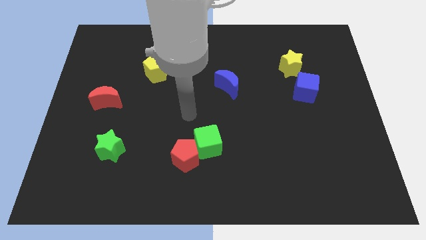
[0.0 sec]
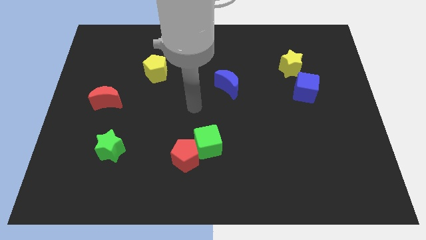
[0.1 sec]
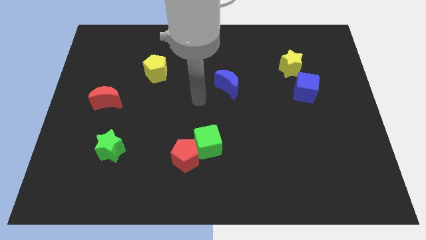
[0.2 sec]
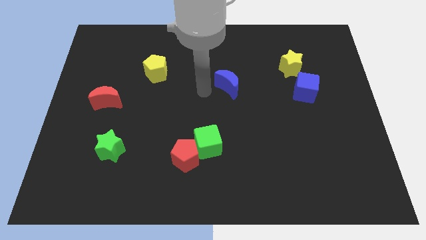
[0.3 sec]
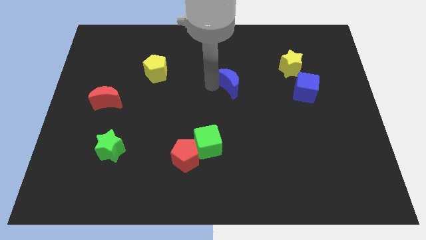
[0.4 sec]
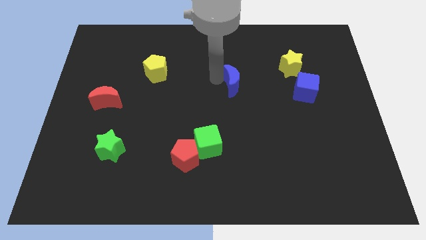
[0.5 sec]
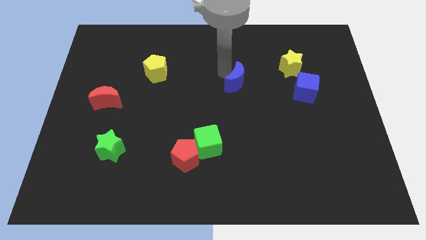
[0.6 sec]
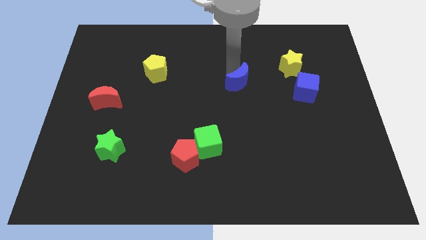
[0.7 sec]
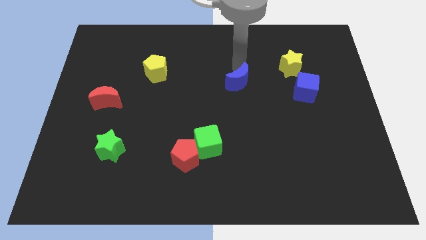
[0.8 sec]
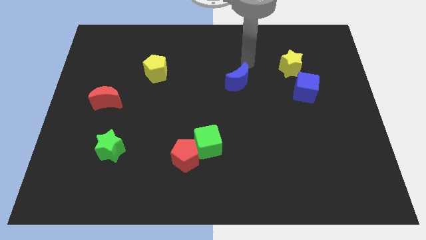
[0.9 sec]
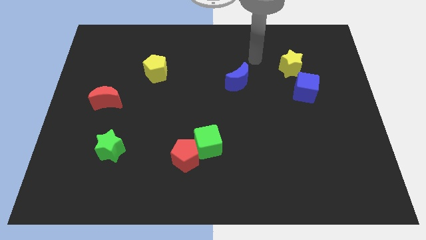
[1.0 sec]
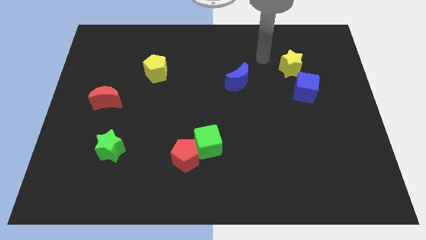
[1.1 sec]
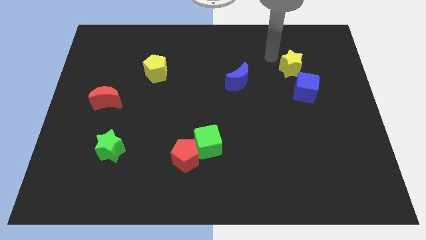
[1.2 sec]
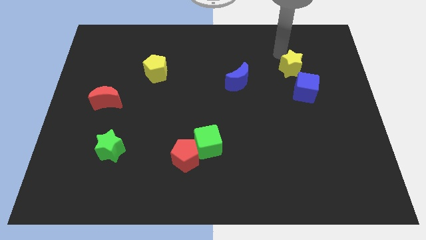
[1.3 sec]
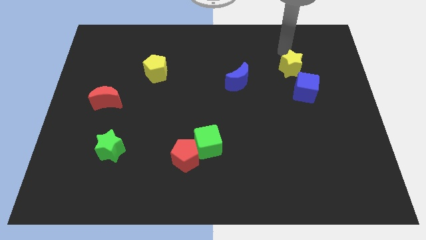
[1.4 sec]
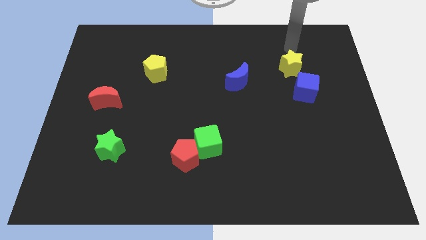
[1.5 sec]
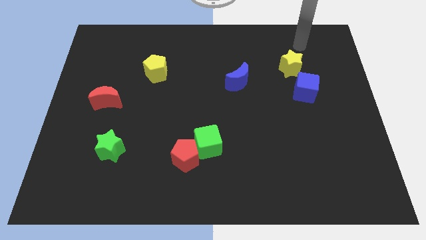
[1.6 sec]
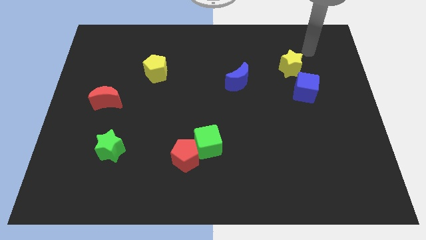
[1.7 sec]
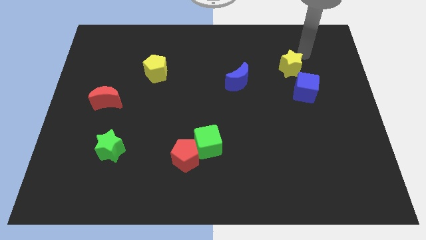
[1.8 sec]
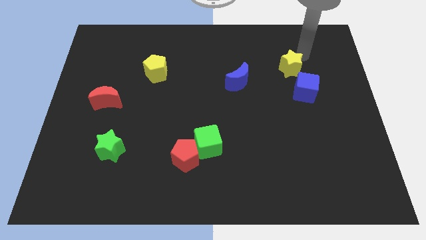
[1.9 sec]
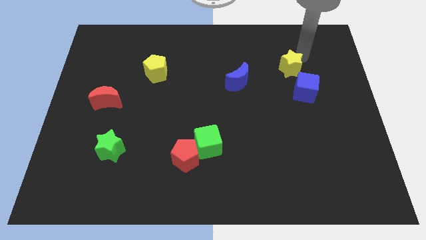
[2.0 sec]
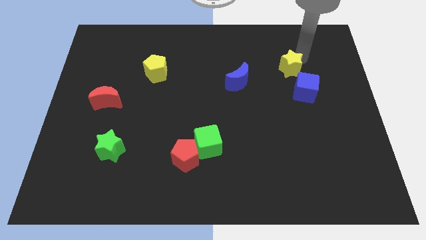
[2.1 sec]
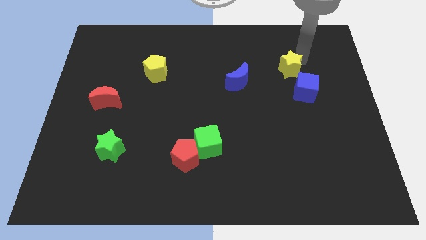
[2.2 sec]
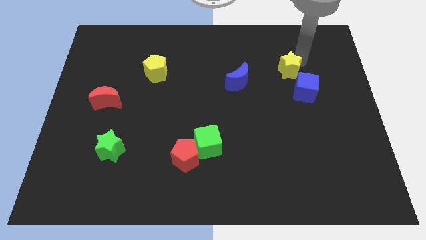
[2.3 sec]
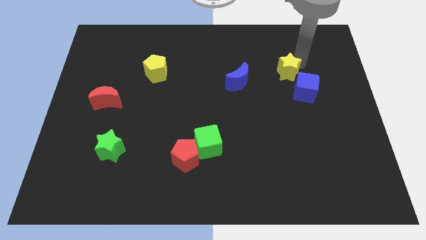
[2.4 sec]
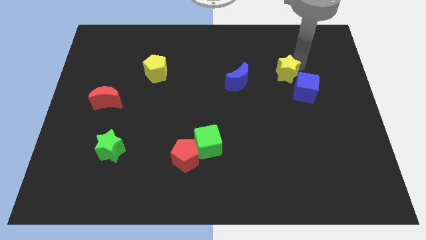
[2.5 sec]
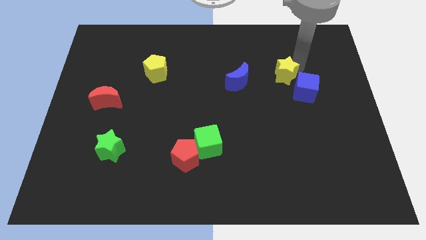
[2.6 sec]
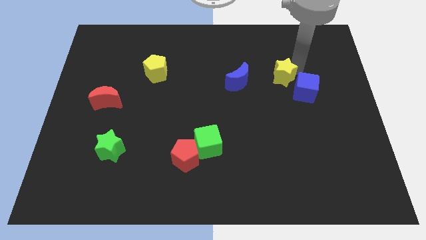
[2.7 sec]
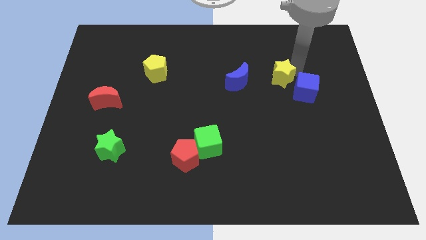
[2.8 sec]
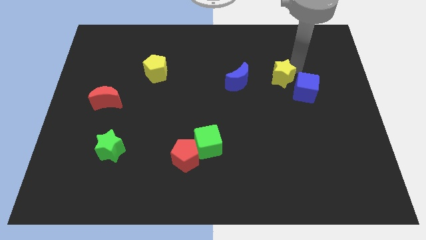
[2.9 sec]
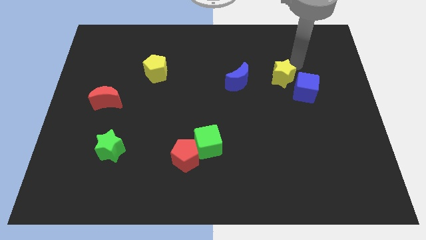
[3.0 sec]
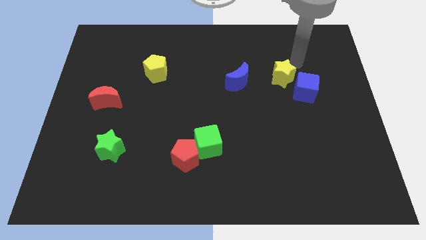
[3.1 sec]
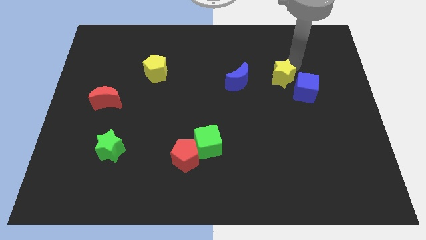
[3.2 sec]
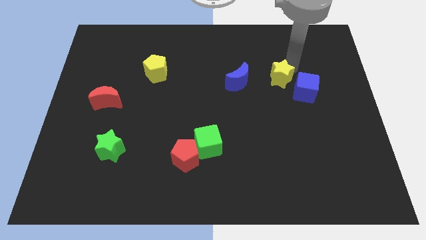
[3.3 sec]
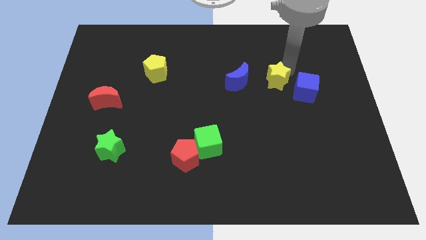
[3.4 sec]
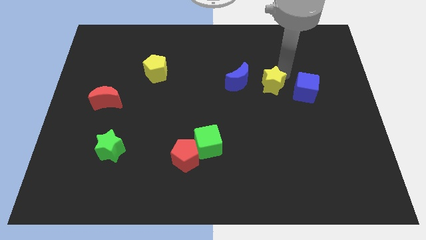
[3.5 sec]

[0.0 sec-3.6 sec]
slightly move the yellow star down and to the left diagonally

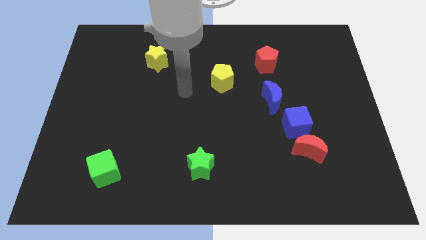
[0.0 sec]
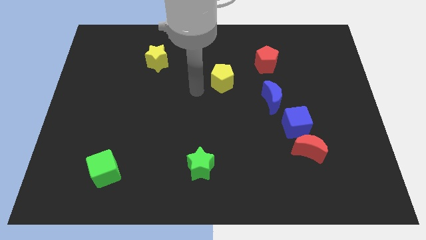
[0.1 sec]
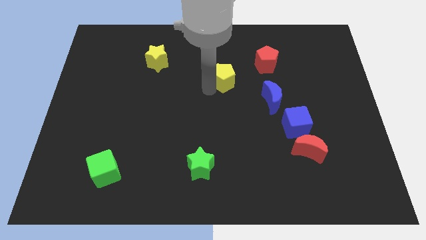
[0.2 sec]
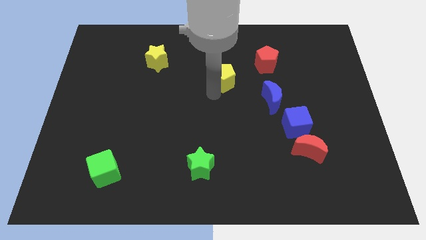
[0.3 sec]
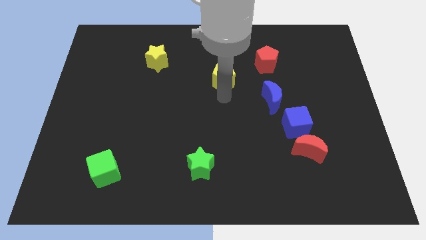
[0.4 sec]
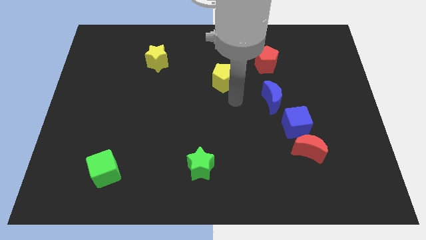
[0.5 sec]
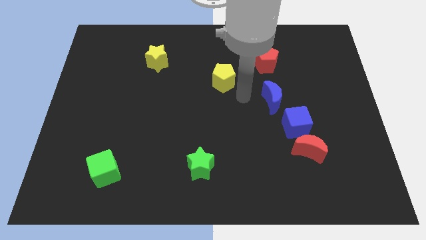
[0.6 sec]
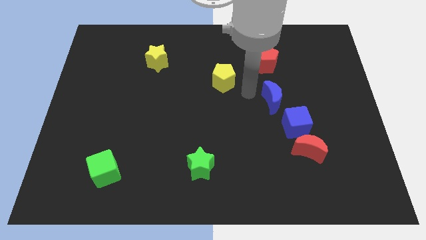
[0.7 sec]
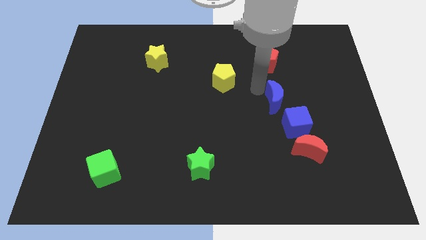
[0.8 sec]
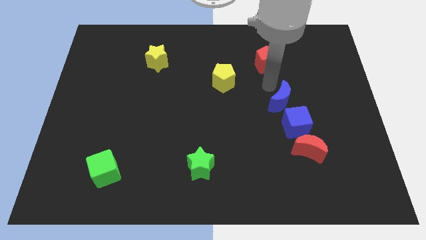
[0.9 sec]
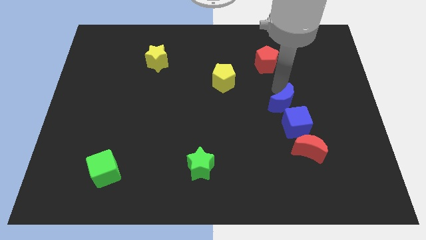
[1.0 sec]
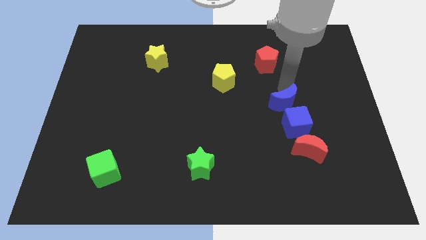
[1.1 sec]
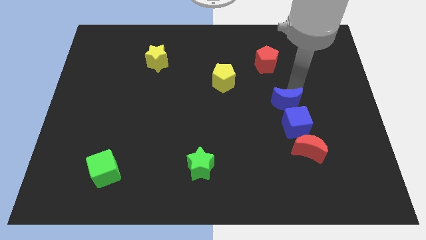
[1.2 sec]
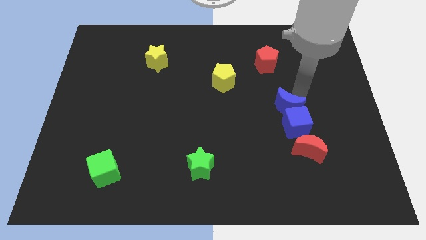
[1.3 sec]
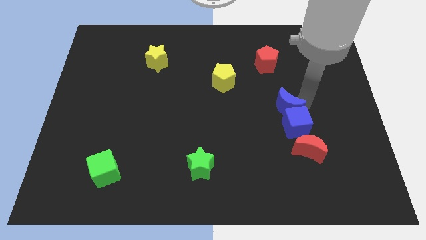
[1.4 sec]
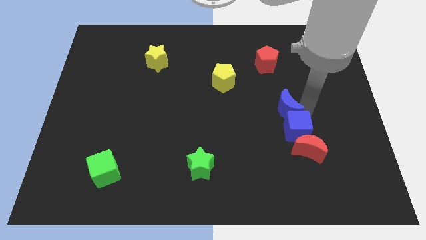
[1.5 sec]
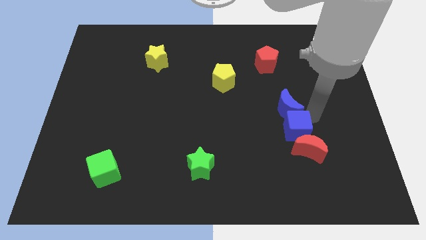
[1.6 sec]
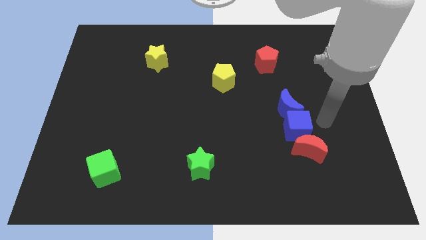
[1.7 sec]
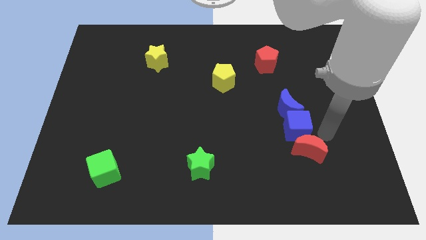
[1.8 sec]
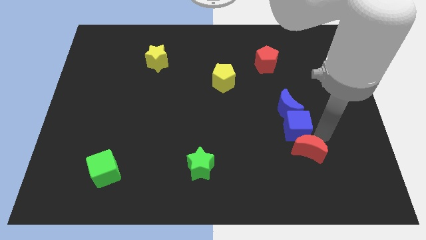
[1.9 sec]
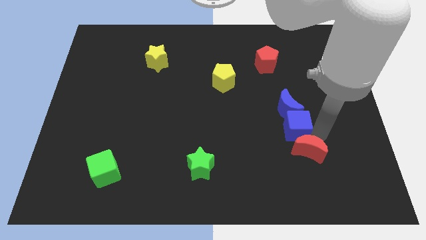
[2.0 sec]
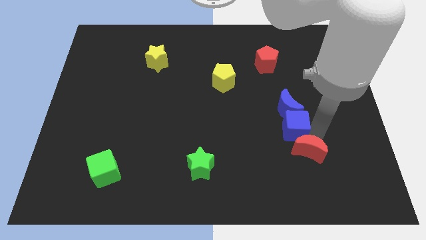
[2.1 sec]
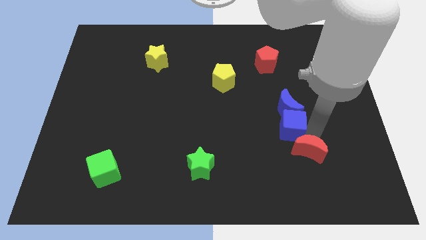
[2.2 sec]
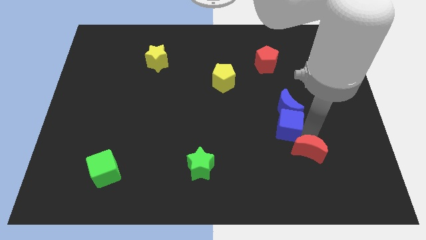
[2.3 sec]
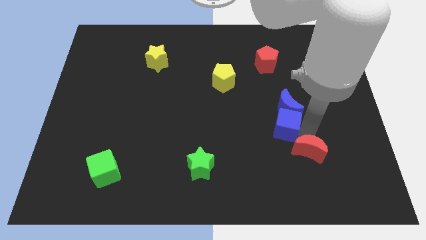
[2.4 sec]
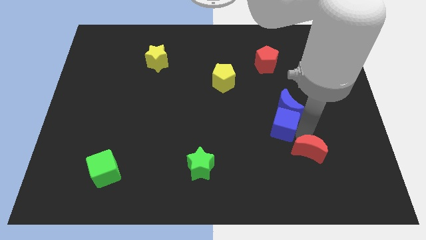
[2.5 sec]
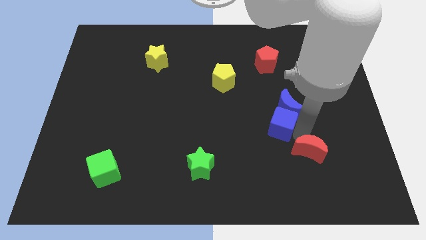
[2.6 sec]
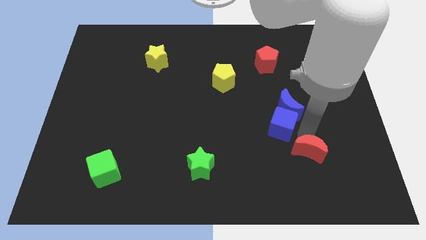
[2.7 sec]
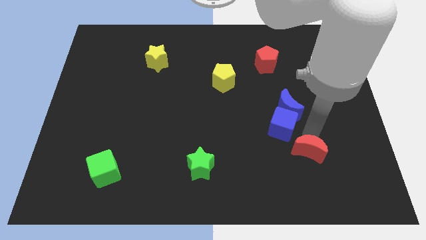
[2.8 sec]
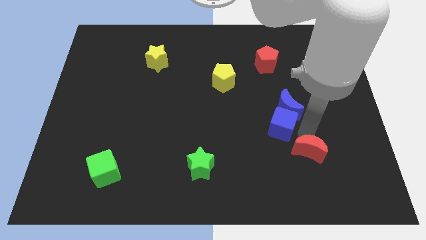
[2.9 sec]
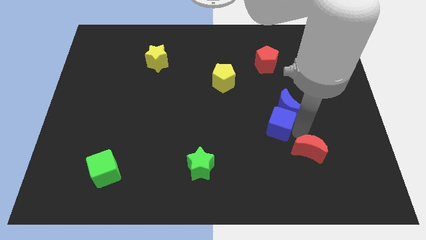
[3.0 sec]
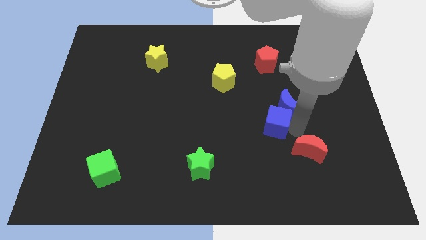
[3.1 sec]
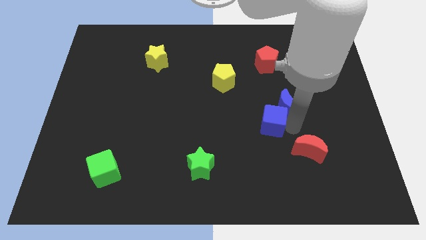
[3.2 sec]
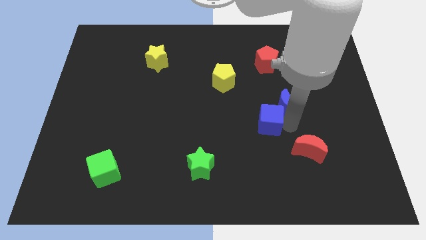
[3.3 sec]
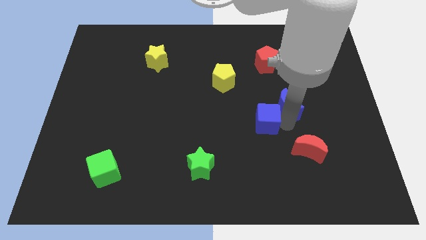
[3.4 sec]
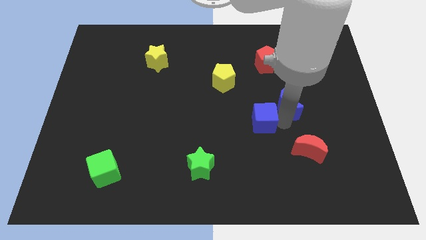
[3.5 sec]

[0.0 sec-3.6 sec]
slide the blue cube to the left a little bit

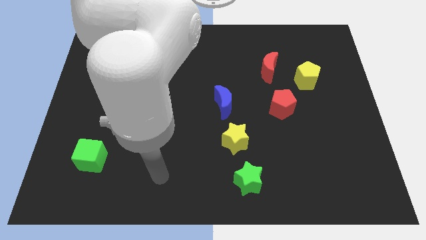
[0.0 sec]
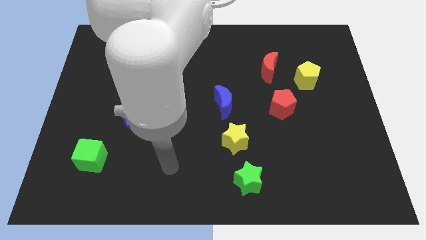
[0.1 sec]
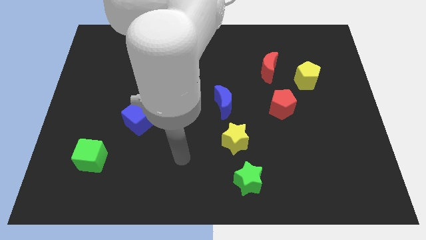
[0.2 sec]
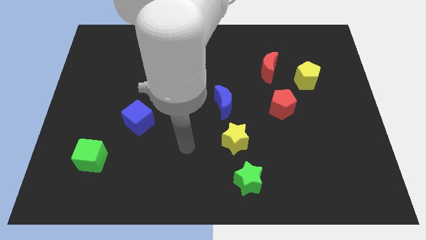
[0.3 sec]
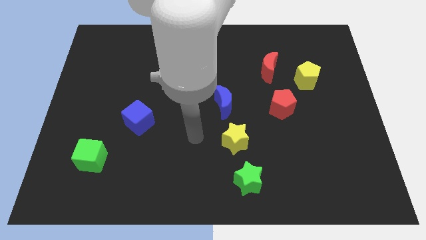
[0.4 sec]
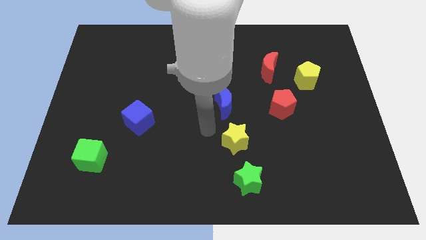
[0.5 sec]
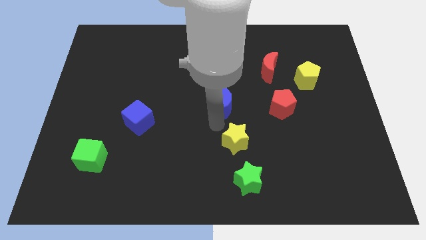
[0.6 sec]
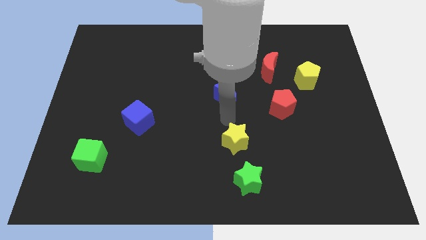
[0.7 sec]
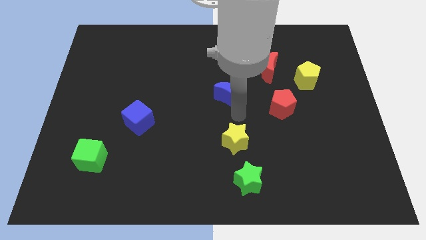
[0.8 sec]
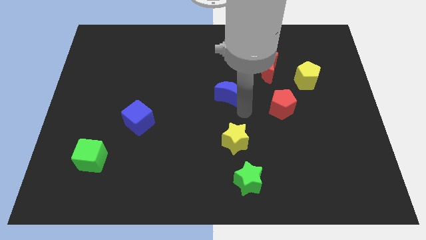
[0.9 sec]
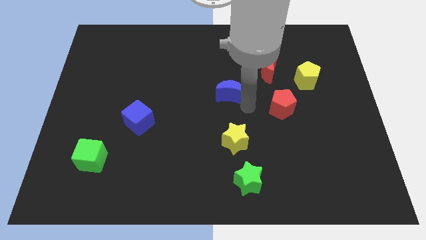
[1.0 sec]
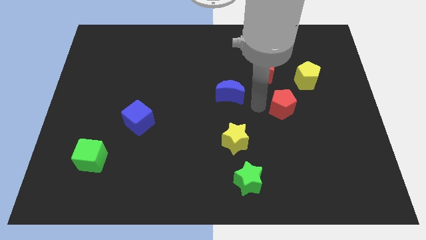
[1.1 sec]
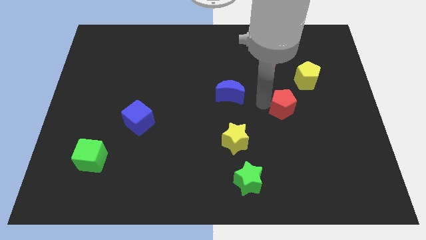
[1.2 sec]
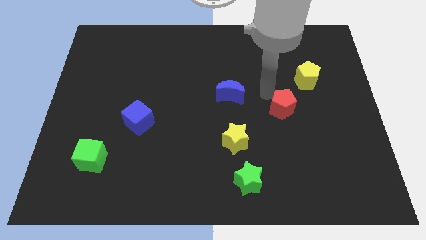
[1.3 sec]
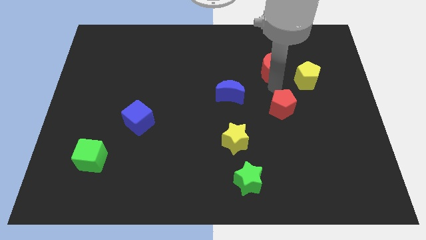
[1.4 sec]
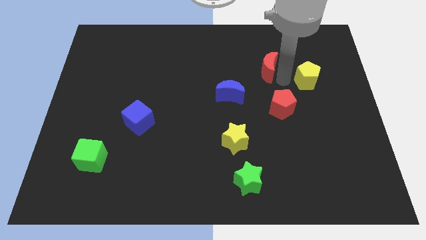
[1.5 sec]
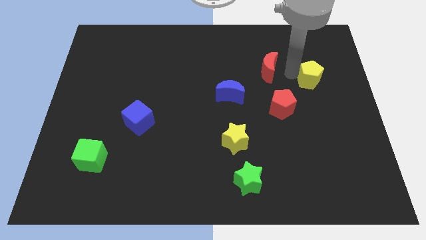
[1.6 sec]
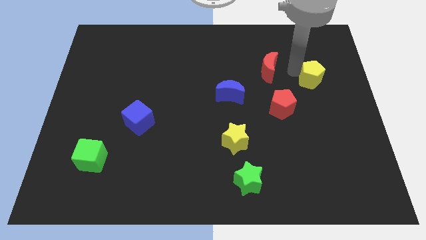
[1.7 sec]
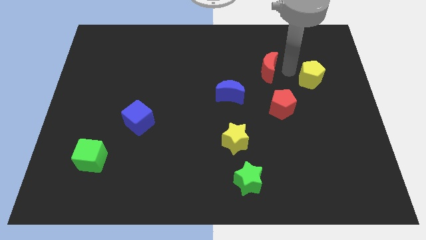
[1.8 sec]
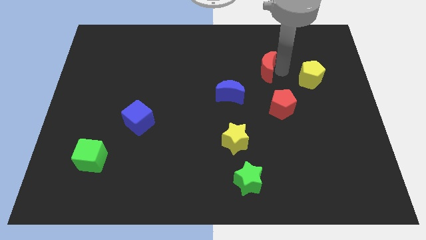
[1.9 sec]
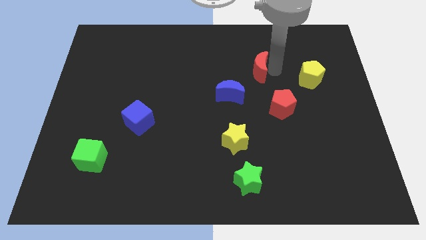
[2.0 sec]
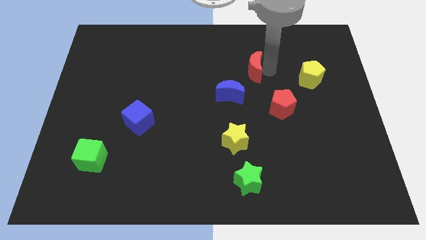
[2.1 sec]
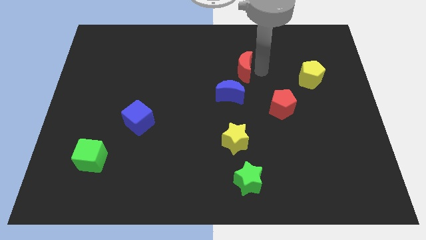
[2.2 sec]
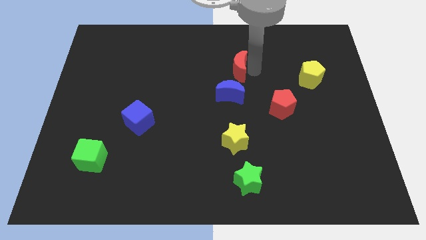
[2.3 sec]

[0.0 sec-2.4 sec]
slide the red moon somewhat to the left
